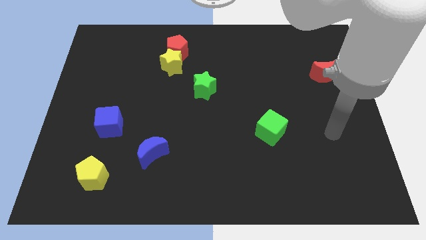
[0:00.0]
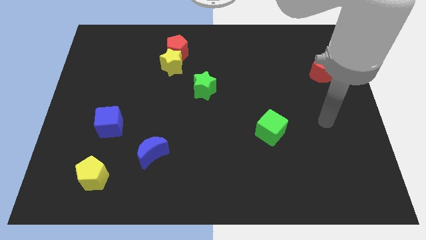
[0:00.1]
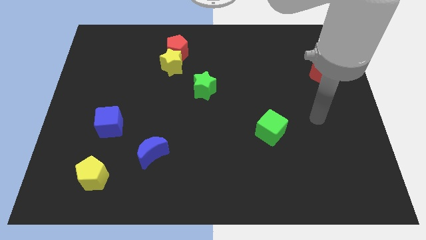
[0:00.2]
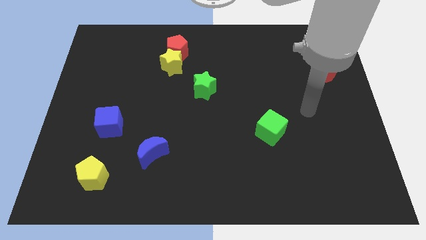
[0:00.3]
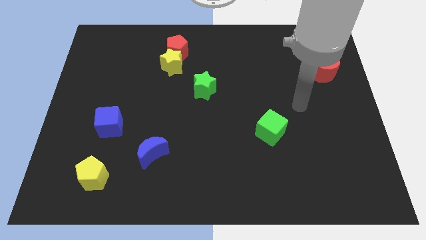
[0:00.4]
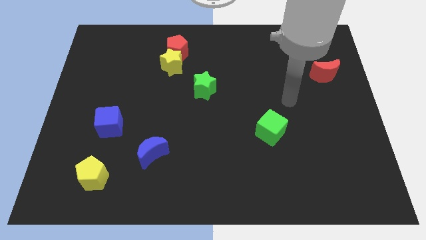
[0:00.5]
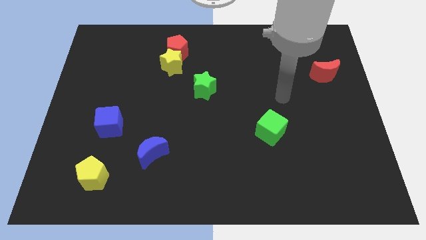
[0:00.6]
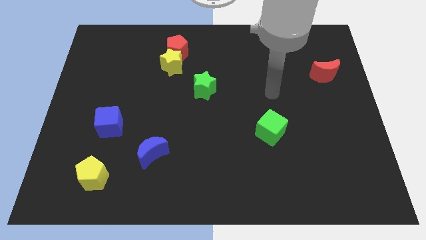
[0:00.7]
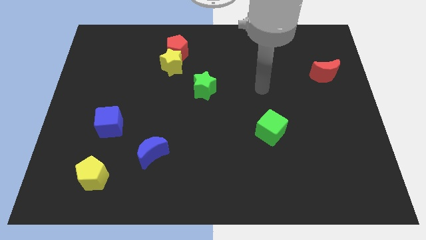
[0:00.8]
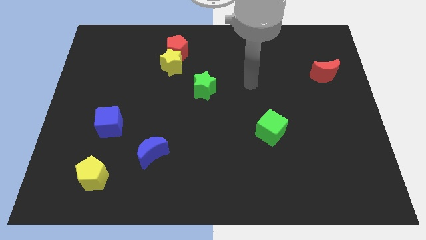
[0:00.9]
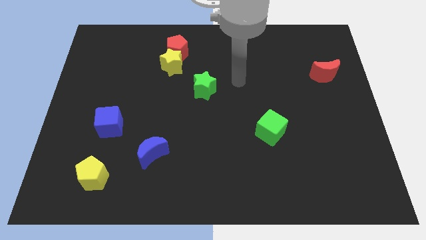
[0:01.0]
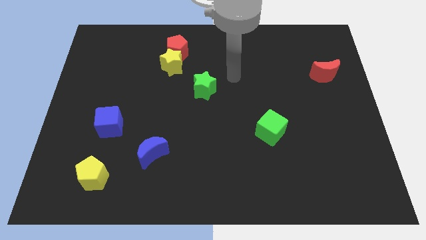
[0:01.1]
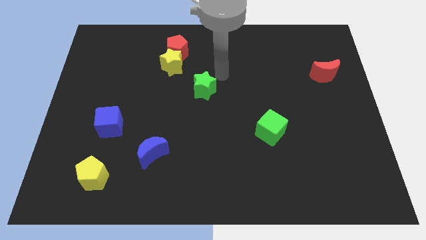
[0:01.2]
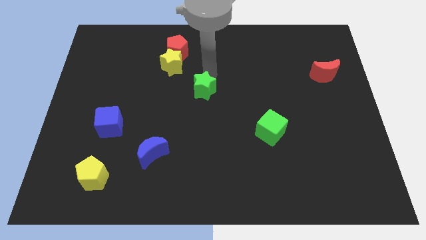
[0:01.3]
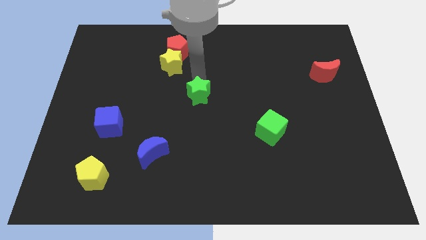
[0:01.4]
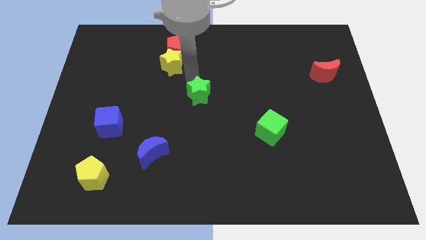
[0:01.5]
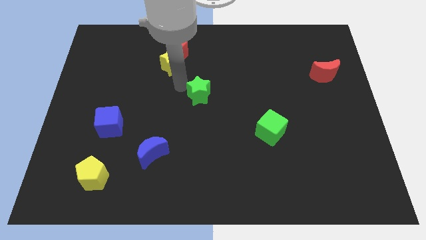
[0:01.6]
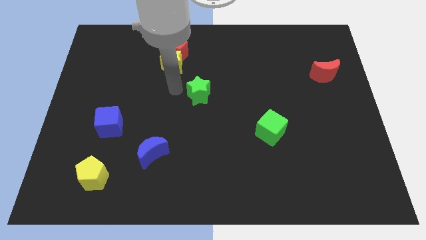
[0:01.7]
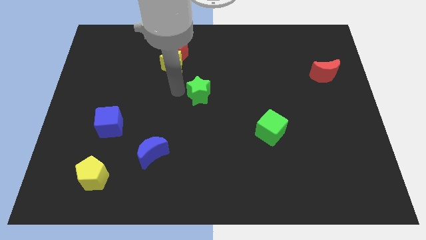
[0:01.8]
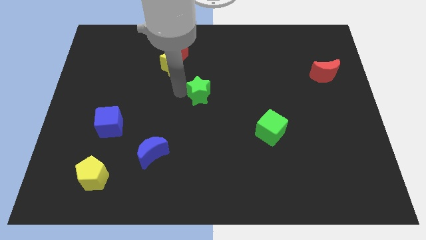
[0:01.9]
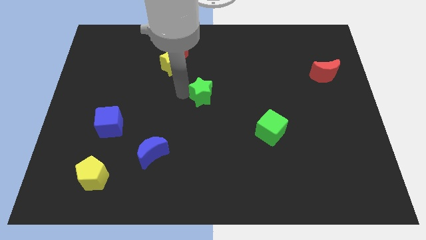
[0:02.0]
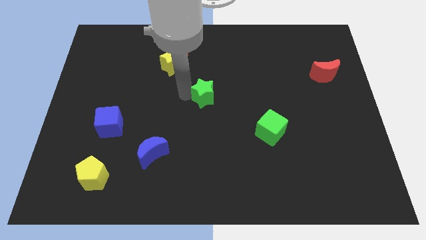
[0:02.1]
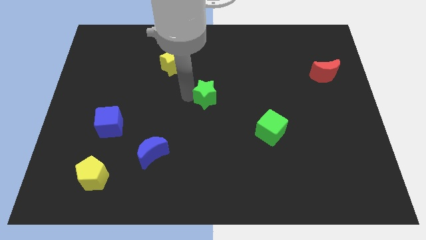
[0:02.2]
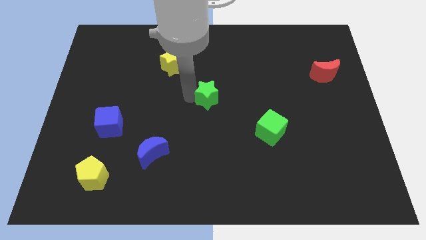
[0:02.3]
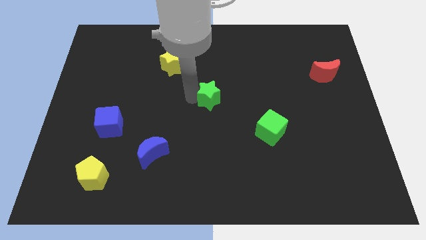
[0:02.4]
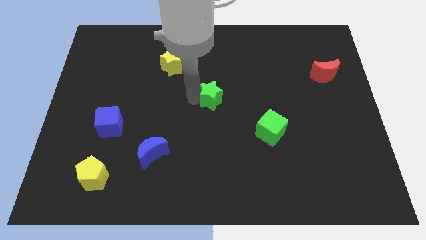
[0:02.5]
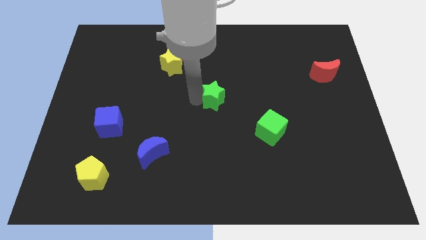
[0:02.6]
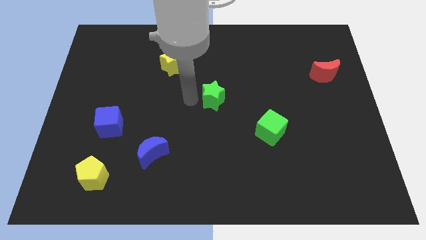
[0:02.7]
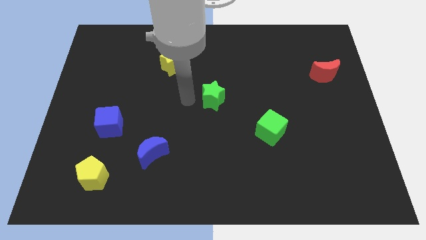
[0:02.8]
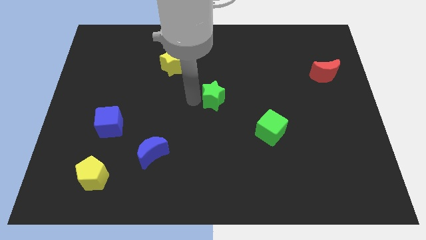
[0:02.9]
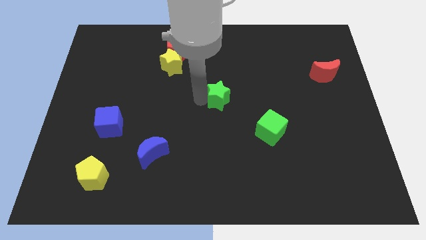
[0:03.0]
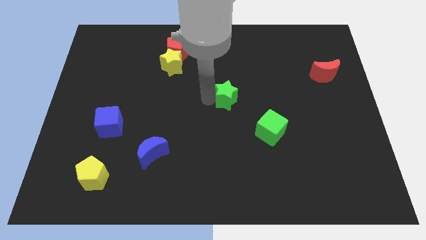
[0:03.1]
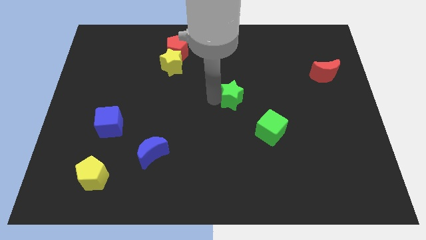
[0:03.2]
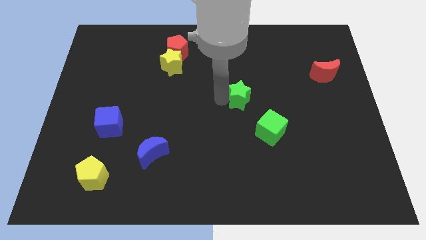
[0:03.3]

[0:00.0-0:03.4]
push the green star right a bit

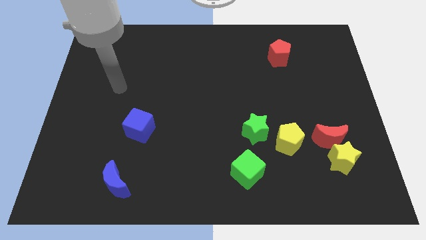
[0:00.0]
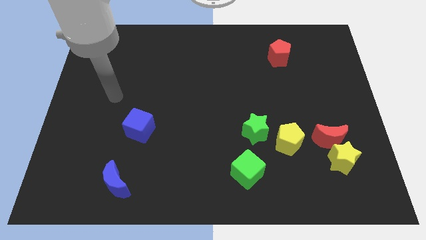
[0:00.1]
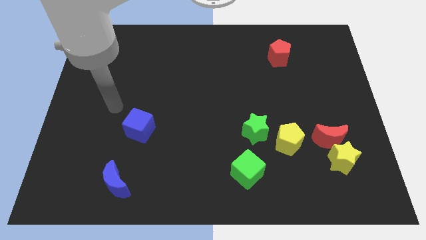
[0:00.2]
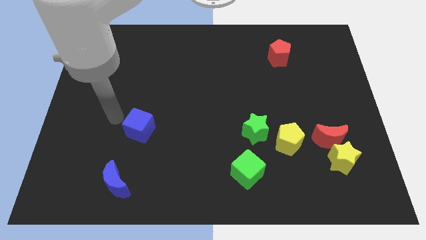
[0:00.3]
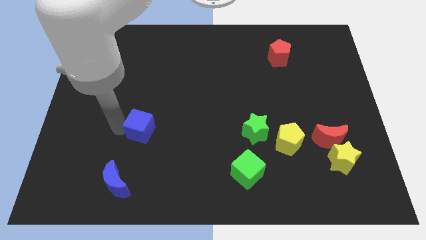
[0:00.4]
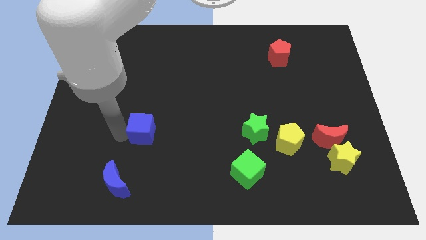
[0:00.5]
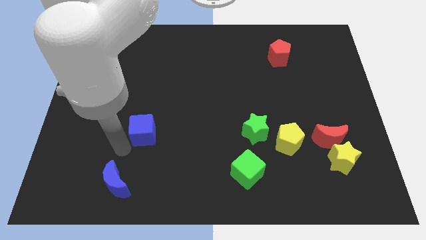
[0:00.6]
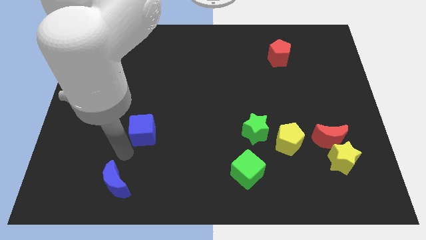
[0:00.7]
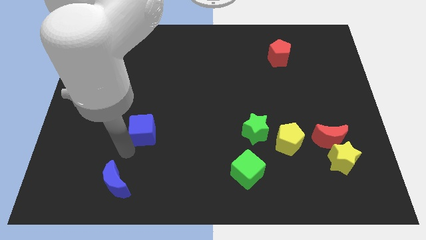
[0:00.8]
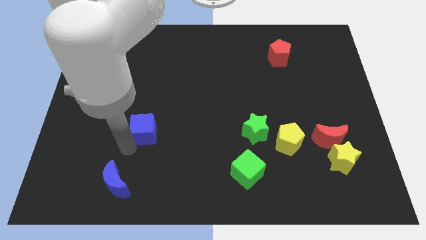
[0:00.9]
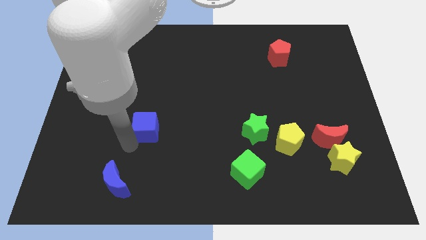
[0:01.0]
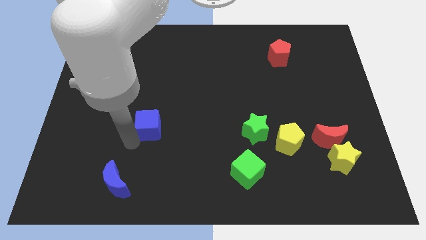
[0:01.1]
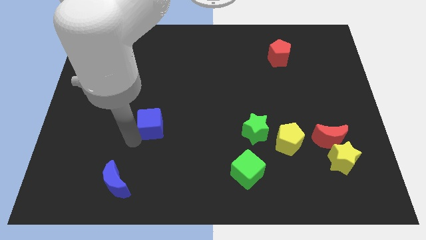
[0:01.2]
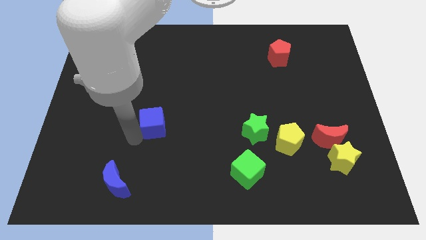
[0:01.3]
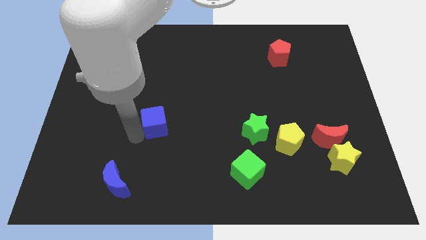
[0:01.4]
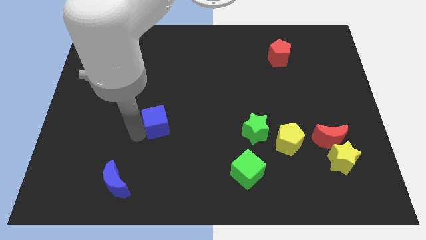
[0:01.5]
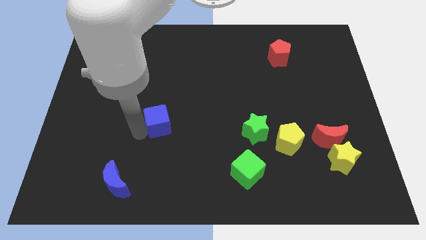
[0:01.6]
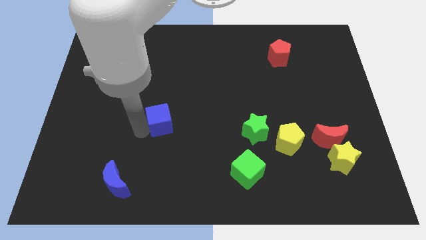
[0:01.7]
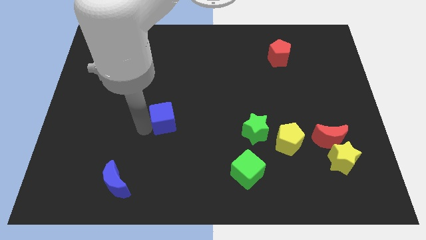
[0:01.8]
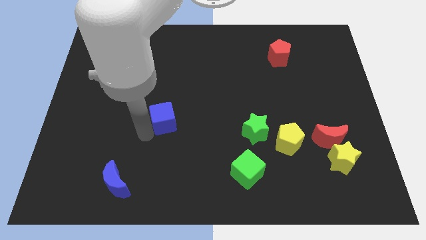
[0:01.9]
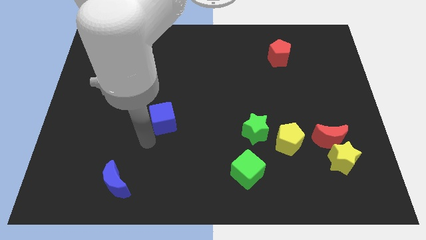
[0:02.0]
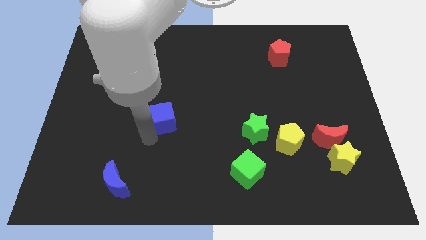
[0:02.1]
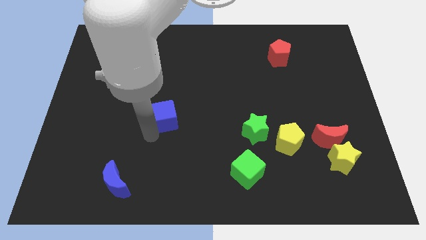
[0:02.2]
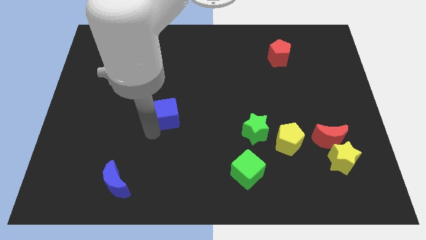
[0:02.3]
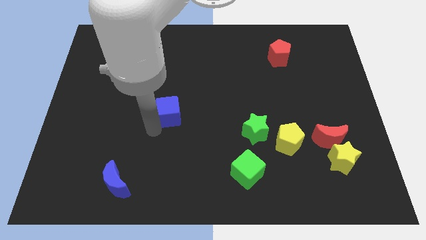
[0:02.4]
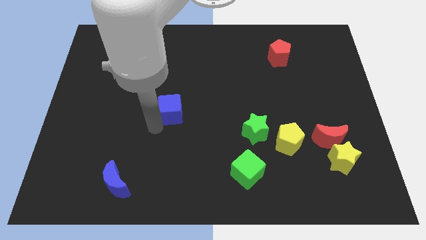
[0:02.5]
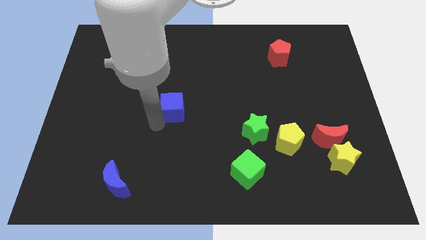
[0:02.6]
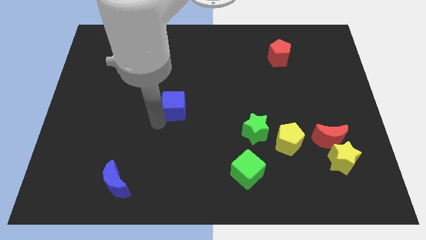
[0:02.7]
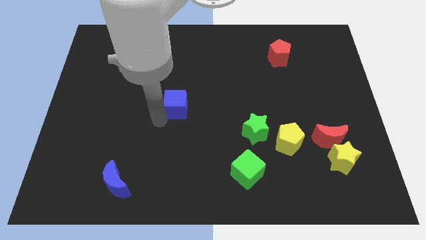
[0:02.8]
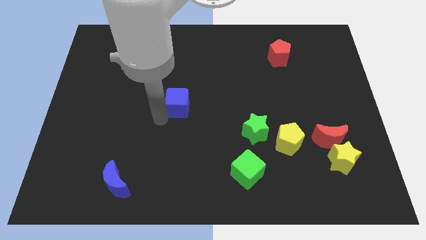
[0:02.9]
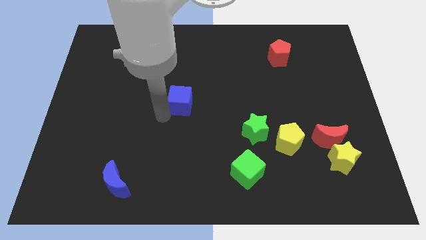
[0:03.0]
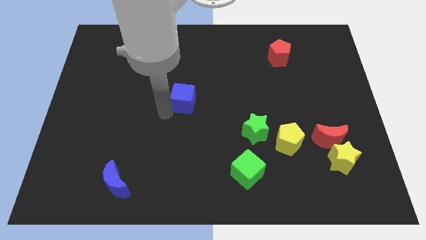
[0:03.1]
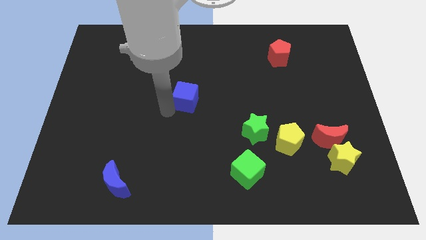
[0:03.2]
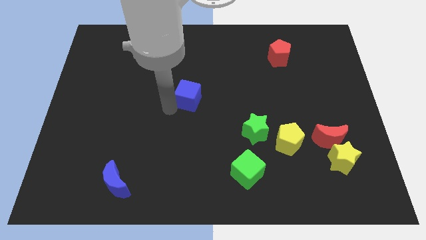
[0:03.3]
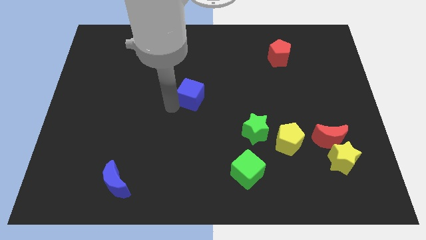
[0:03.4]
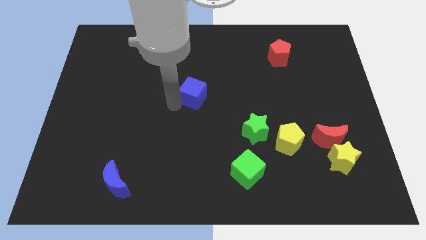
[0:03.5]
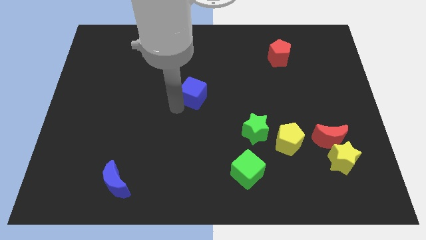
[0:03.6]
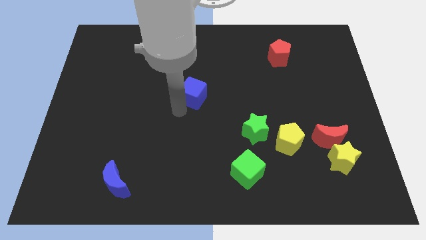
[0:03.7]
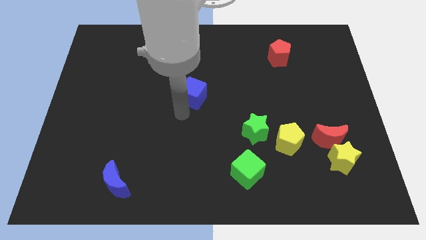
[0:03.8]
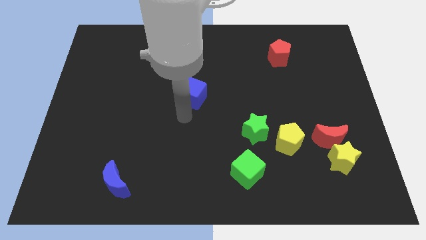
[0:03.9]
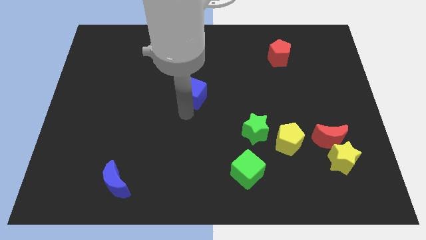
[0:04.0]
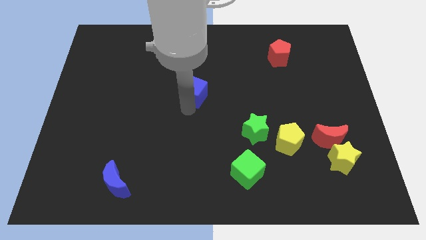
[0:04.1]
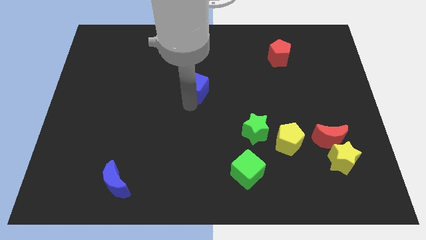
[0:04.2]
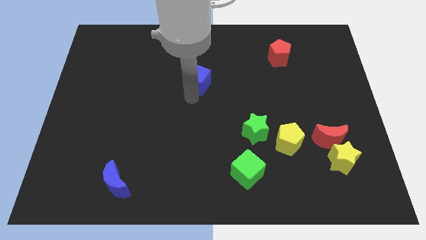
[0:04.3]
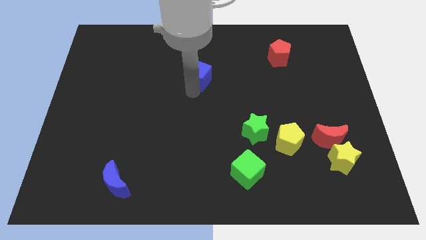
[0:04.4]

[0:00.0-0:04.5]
move the blue cube up and right

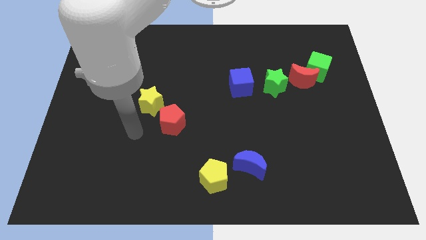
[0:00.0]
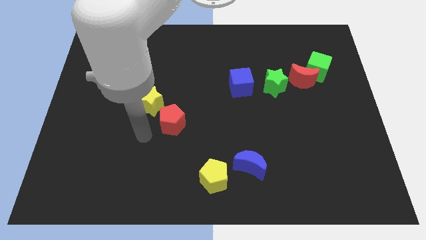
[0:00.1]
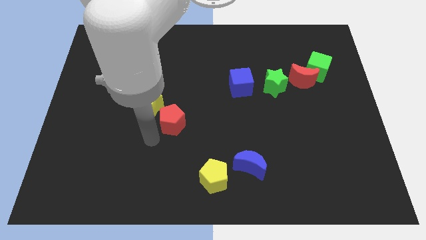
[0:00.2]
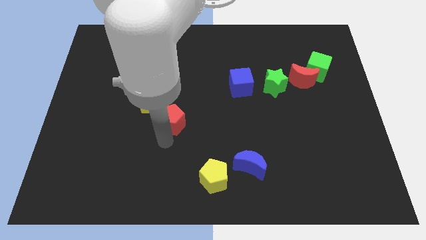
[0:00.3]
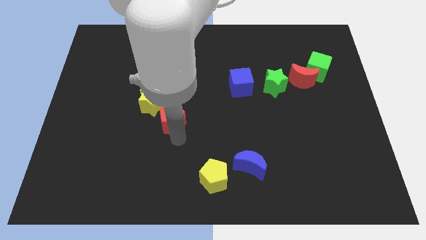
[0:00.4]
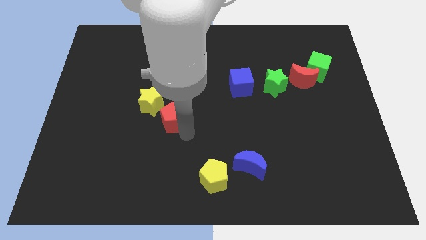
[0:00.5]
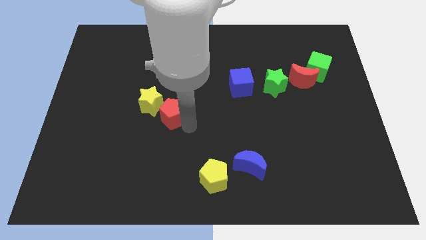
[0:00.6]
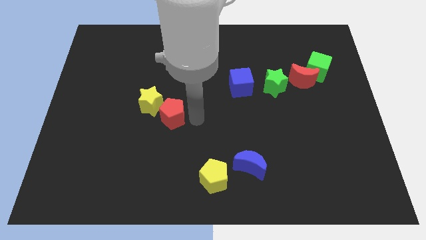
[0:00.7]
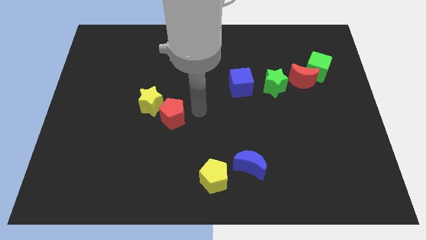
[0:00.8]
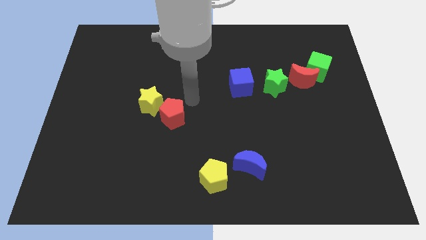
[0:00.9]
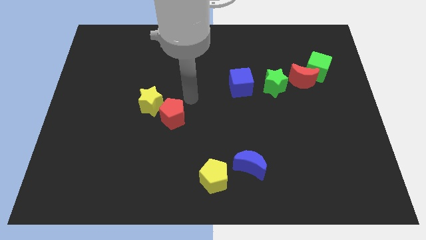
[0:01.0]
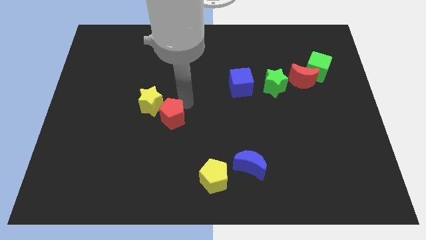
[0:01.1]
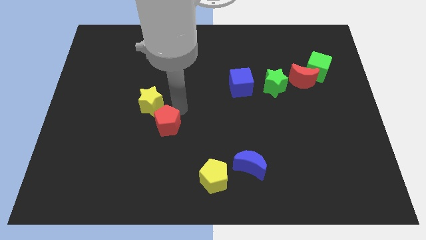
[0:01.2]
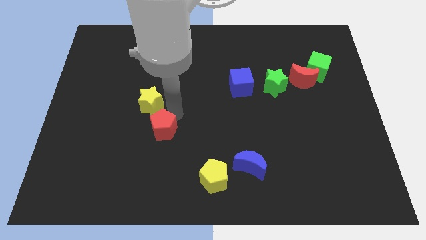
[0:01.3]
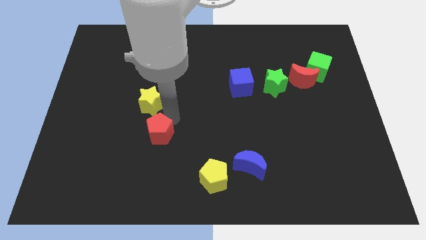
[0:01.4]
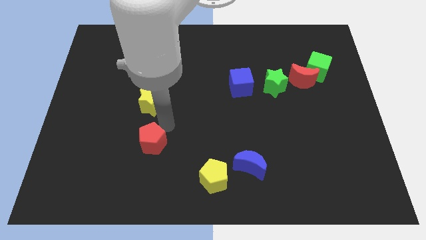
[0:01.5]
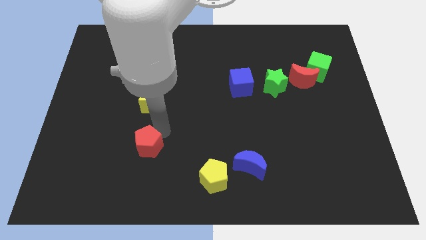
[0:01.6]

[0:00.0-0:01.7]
slightly move the red pentagon downwards and left
